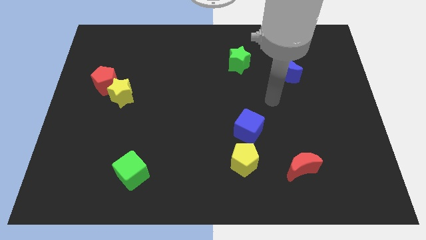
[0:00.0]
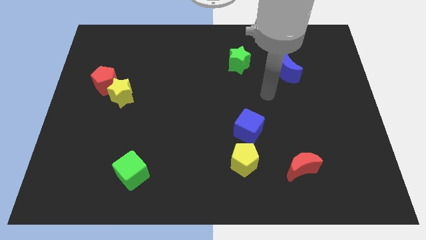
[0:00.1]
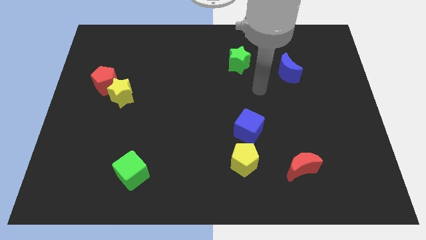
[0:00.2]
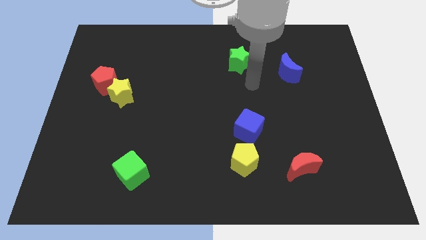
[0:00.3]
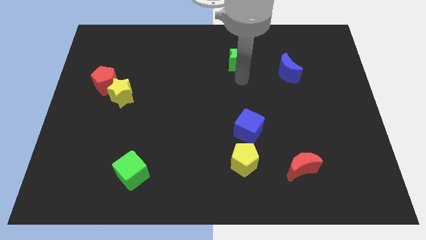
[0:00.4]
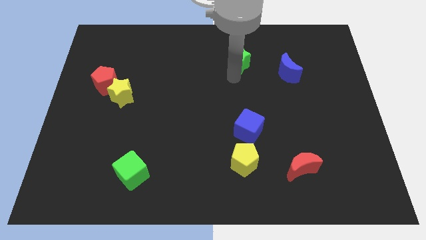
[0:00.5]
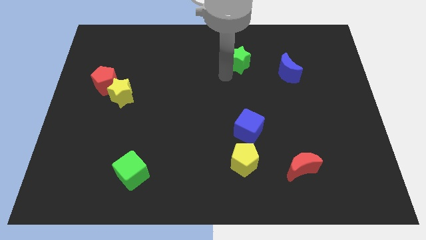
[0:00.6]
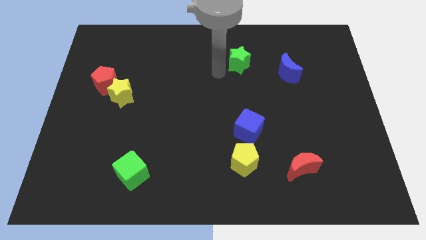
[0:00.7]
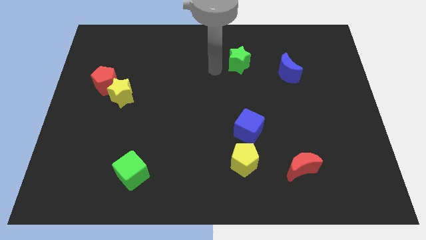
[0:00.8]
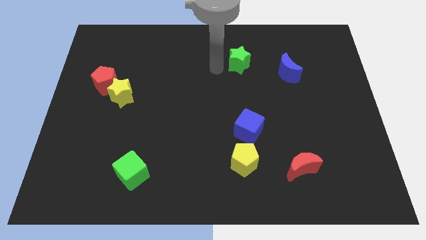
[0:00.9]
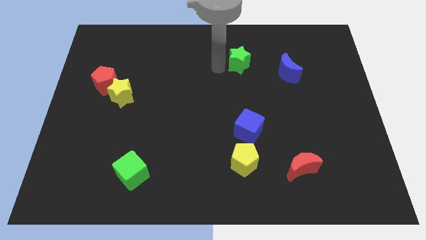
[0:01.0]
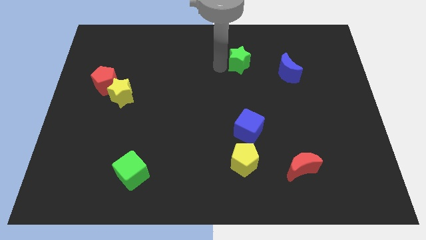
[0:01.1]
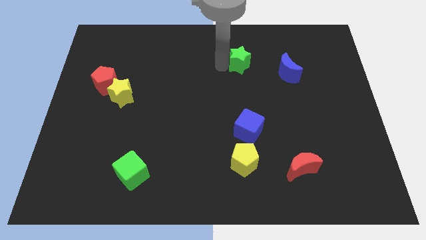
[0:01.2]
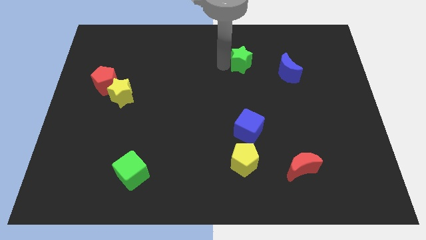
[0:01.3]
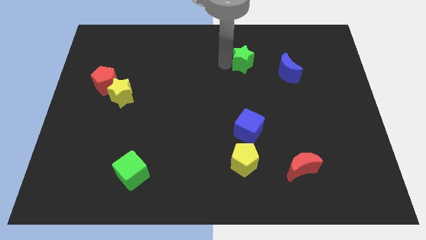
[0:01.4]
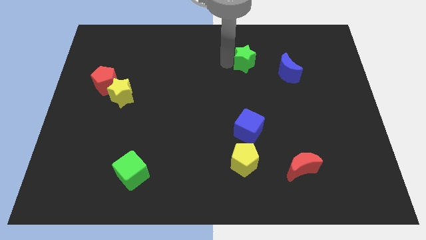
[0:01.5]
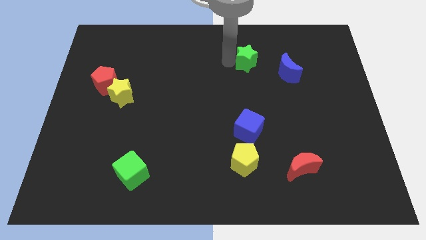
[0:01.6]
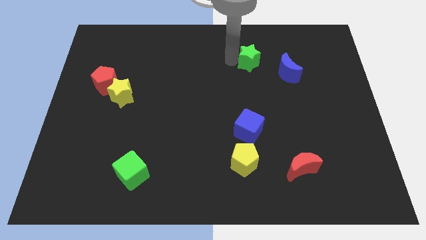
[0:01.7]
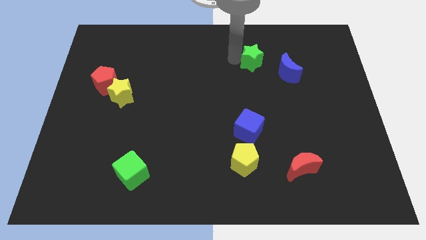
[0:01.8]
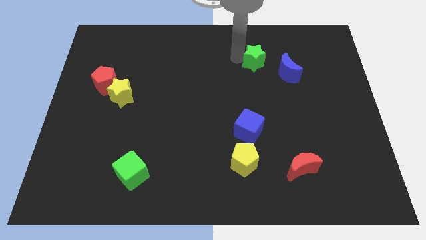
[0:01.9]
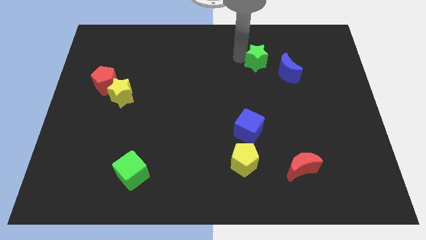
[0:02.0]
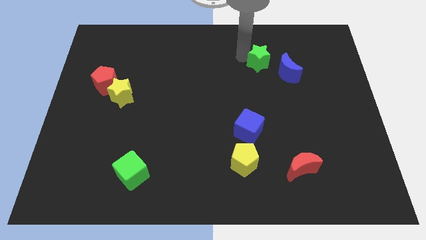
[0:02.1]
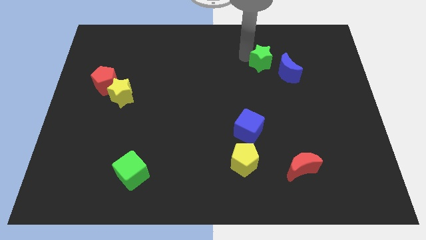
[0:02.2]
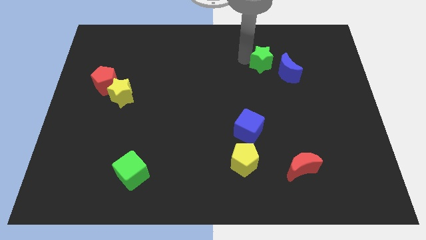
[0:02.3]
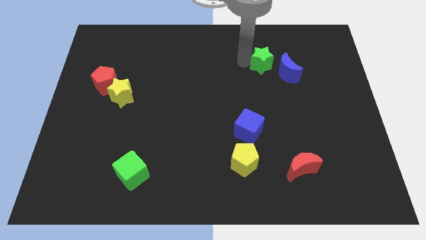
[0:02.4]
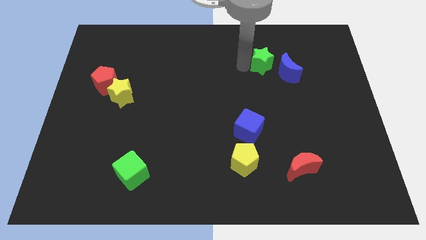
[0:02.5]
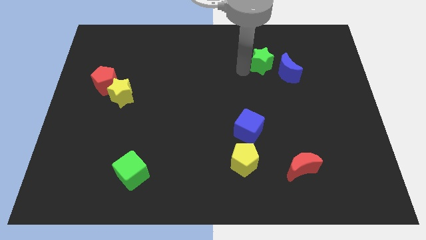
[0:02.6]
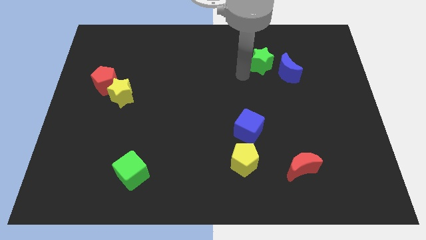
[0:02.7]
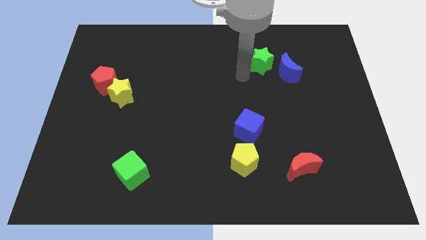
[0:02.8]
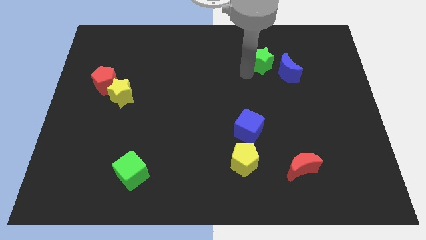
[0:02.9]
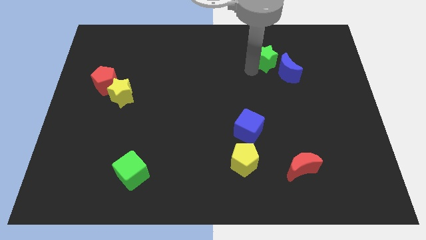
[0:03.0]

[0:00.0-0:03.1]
slightly push the green star to the right

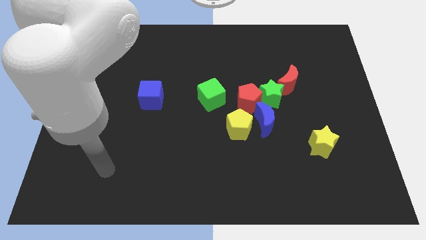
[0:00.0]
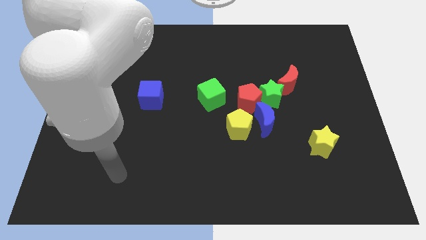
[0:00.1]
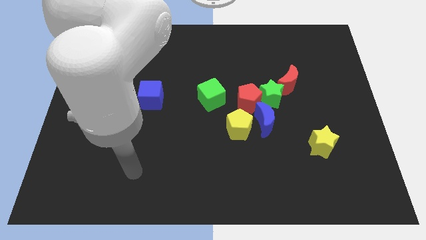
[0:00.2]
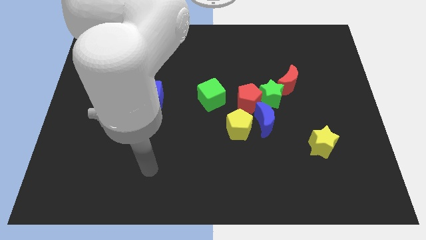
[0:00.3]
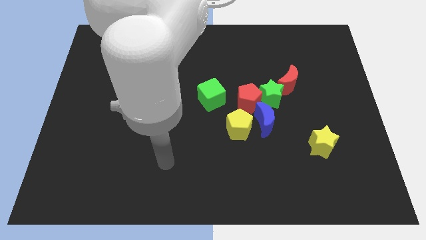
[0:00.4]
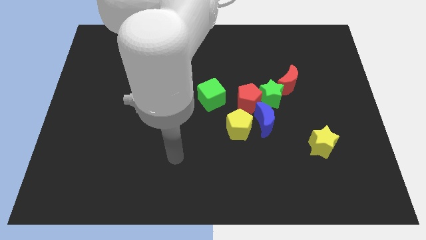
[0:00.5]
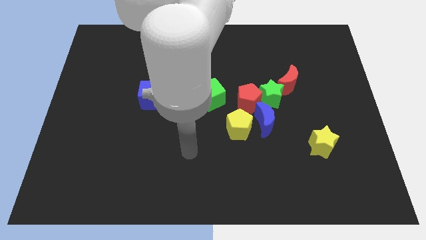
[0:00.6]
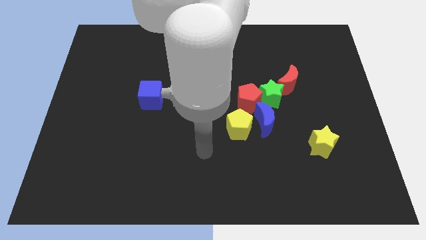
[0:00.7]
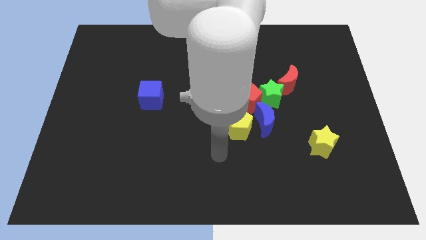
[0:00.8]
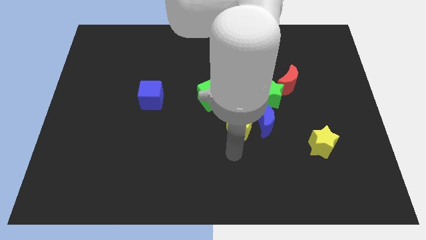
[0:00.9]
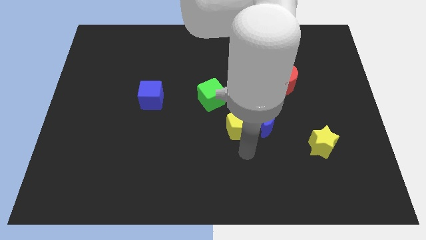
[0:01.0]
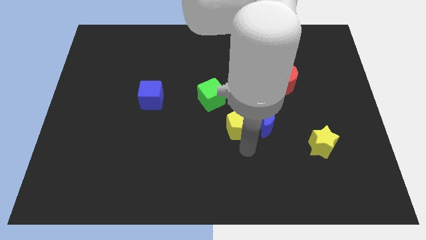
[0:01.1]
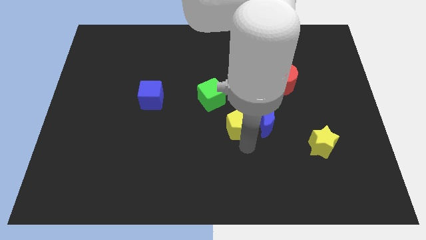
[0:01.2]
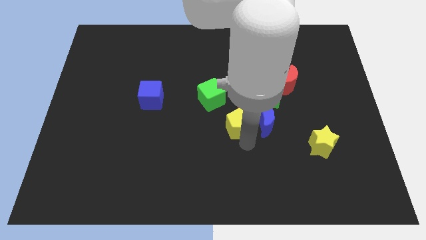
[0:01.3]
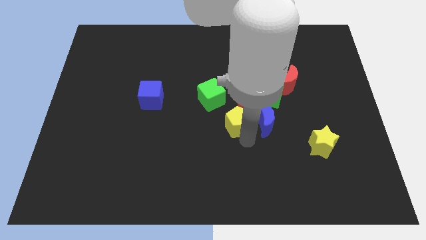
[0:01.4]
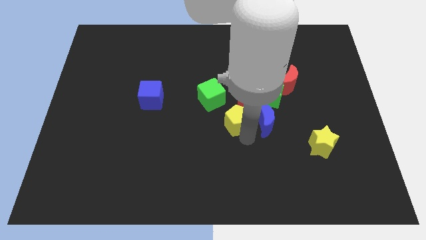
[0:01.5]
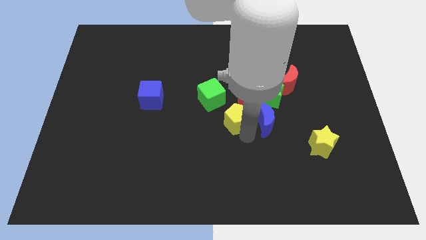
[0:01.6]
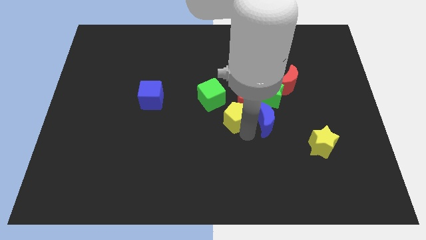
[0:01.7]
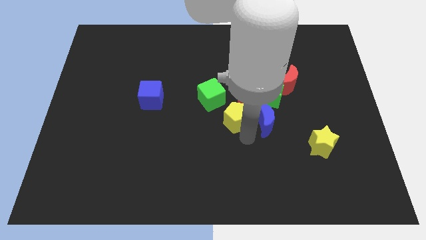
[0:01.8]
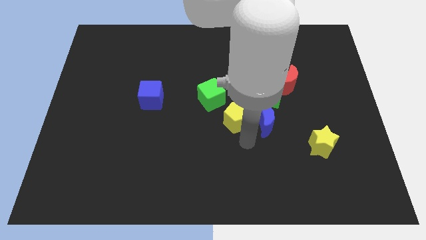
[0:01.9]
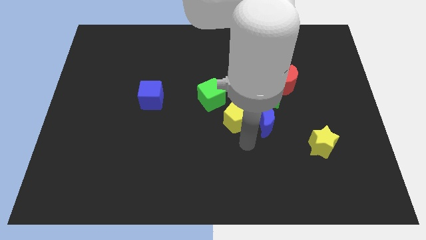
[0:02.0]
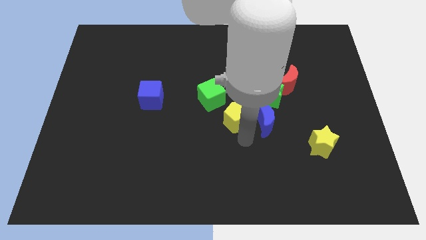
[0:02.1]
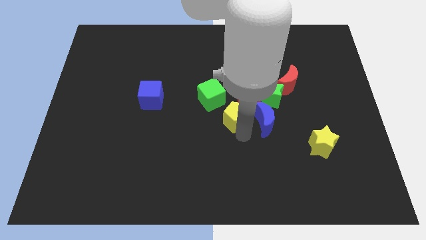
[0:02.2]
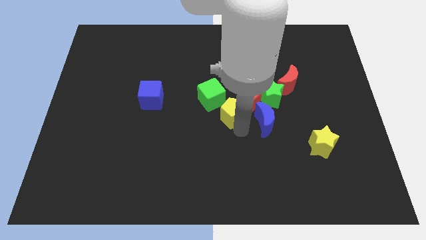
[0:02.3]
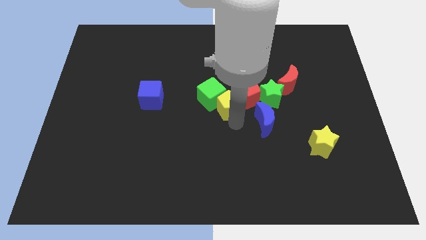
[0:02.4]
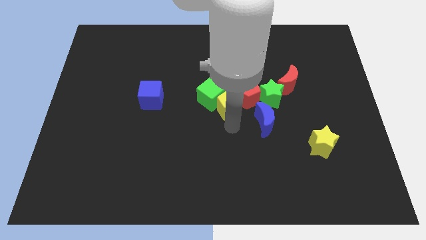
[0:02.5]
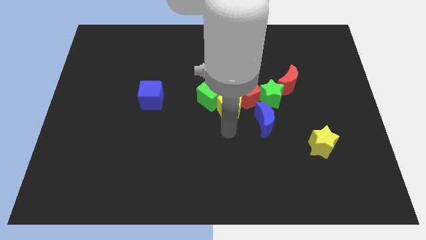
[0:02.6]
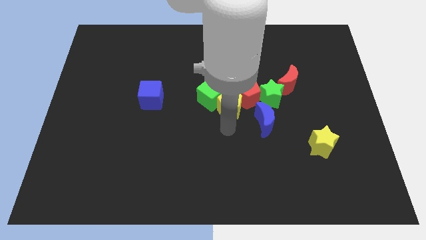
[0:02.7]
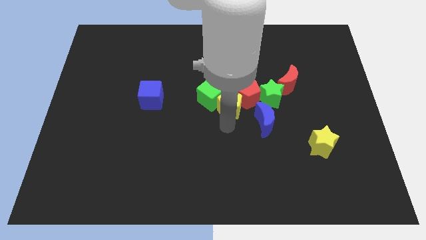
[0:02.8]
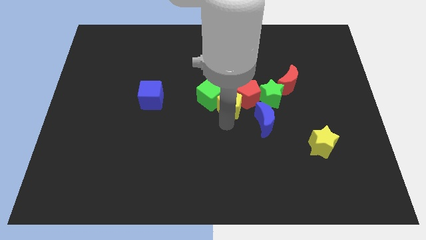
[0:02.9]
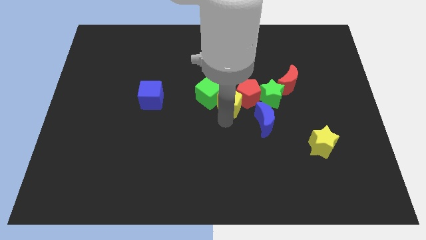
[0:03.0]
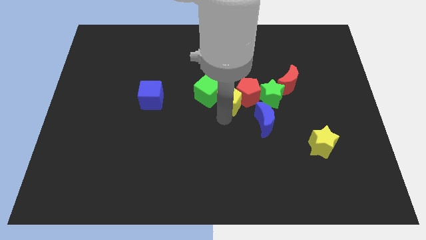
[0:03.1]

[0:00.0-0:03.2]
push the yellow pentagon slightly upwards

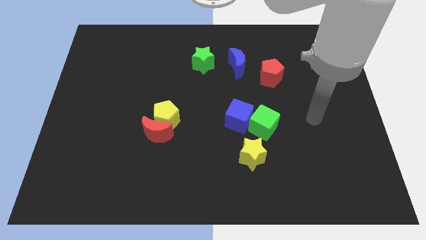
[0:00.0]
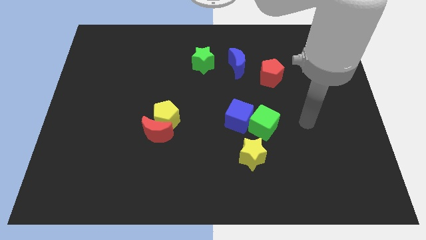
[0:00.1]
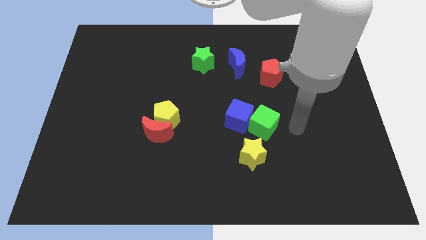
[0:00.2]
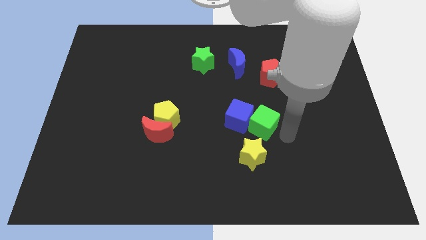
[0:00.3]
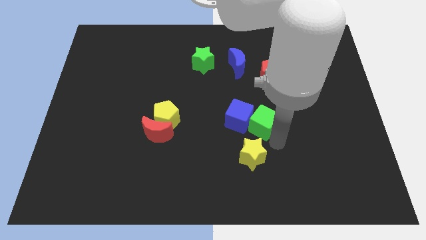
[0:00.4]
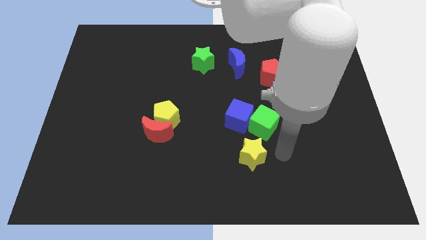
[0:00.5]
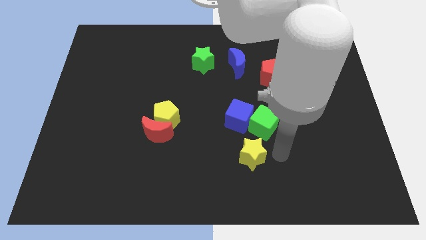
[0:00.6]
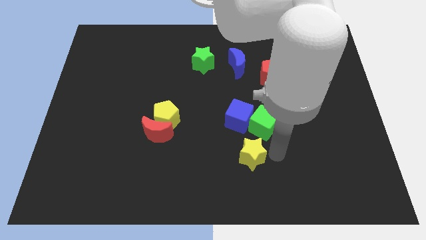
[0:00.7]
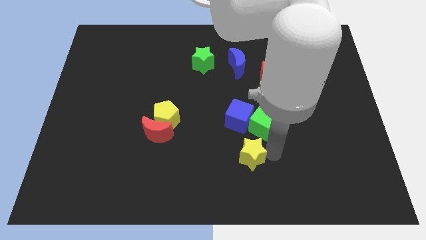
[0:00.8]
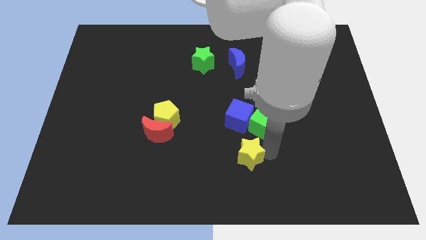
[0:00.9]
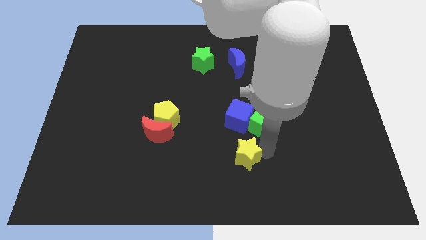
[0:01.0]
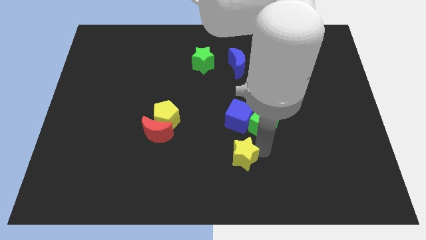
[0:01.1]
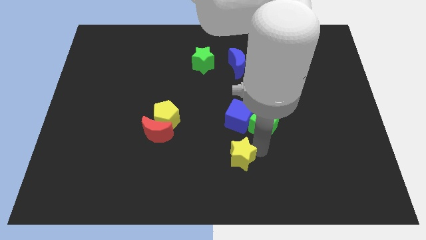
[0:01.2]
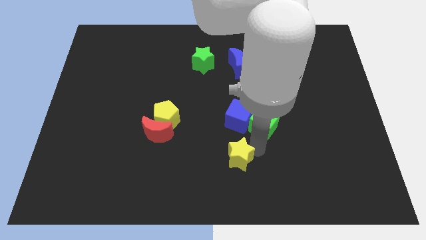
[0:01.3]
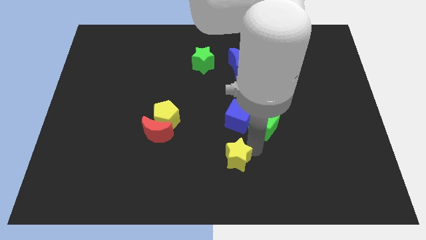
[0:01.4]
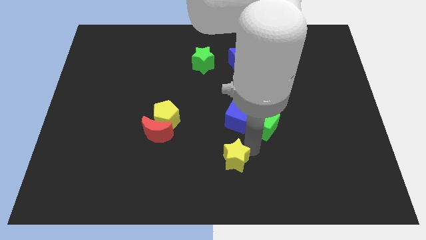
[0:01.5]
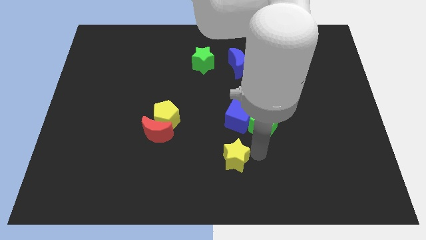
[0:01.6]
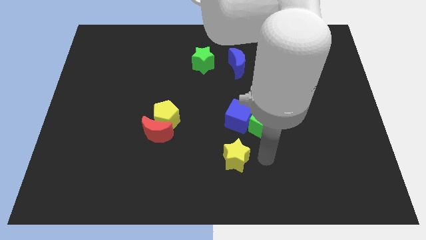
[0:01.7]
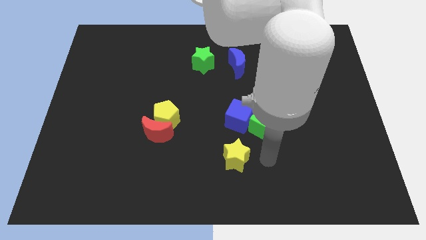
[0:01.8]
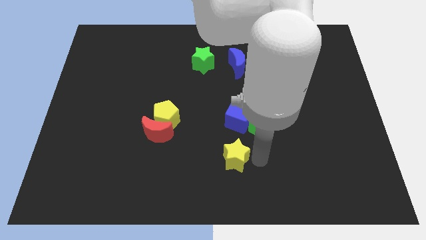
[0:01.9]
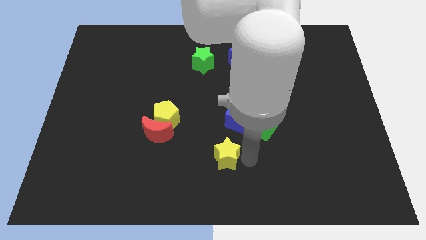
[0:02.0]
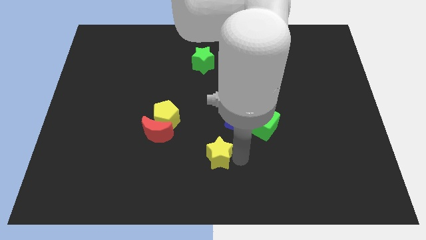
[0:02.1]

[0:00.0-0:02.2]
move the yellow star a little to the left
